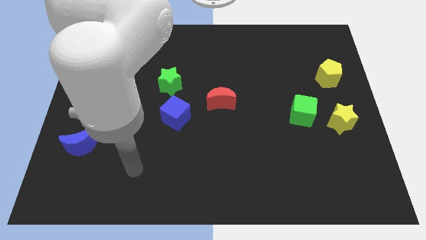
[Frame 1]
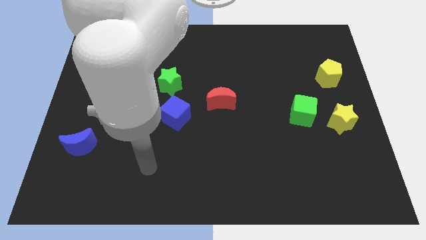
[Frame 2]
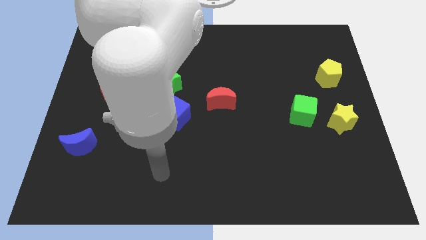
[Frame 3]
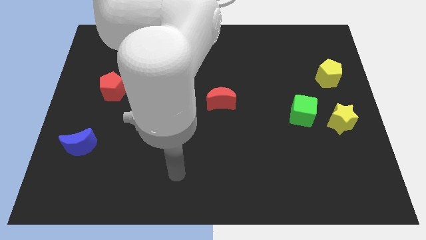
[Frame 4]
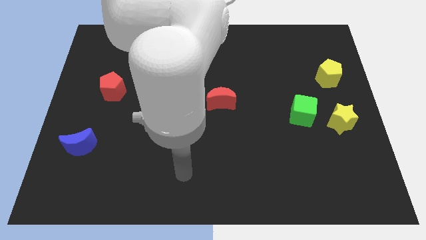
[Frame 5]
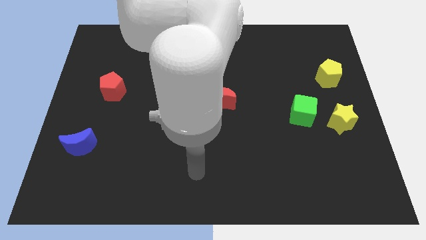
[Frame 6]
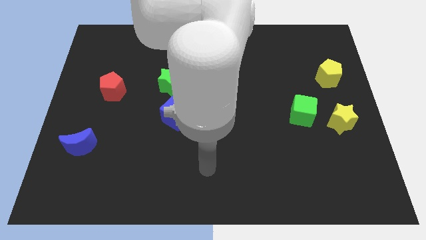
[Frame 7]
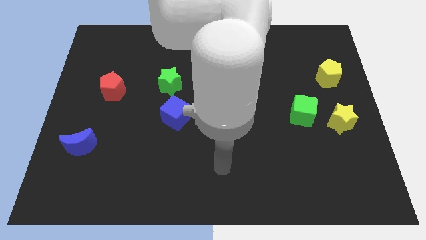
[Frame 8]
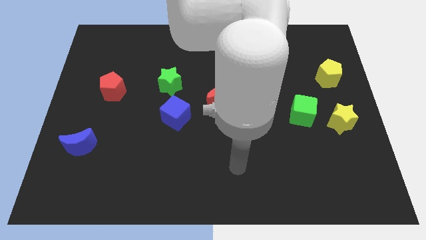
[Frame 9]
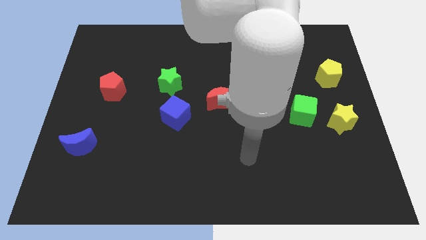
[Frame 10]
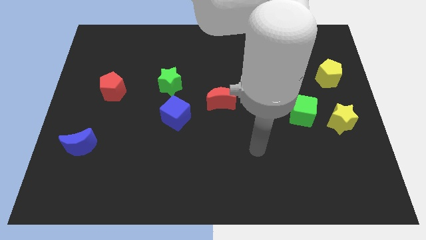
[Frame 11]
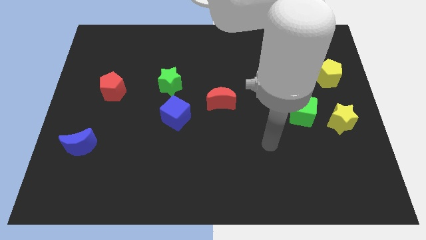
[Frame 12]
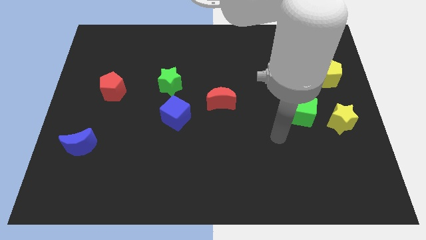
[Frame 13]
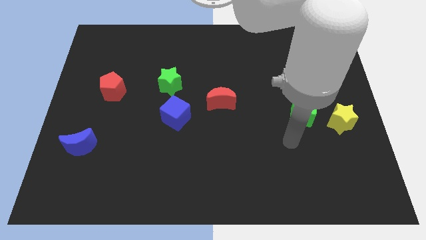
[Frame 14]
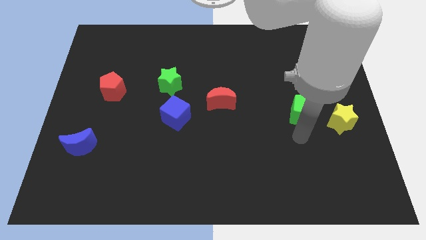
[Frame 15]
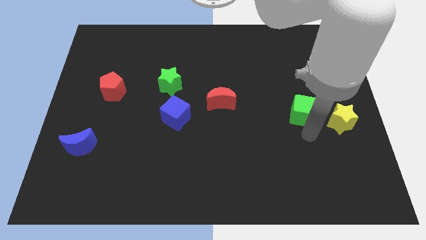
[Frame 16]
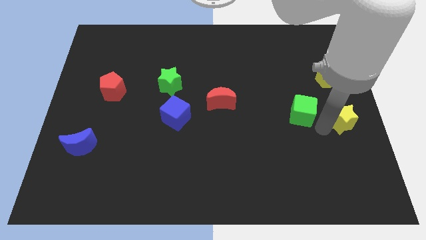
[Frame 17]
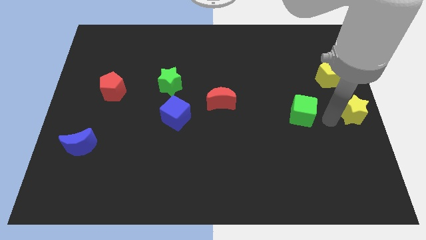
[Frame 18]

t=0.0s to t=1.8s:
pull the green cube apart from the yellow star

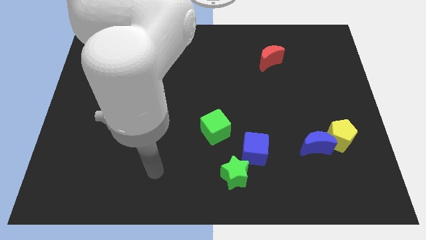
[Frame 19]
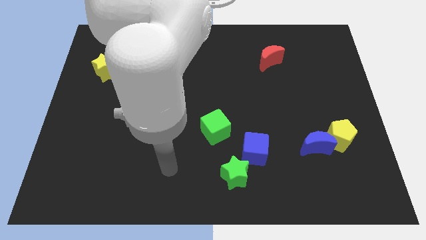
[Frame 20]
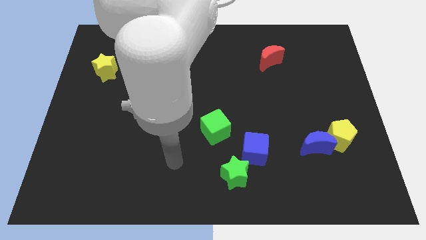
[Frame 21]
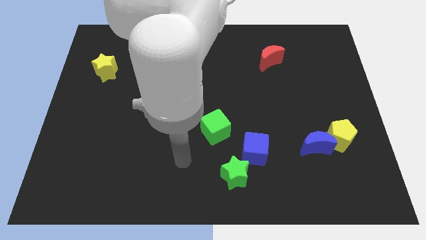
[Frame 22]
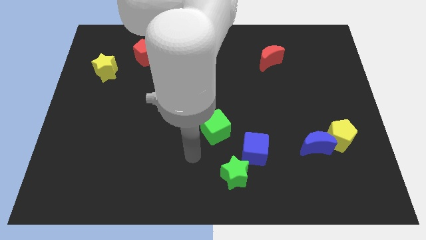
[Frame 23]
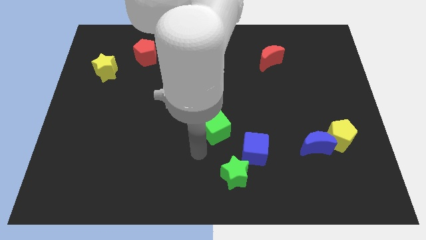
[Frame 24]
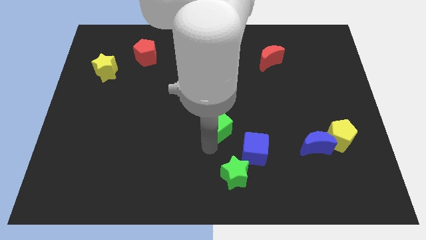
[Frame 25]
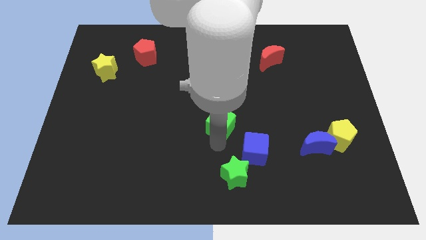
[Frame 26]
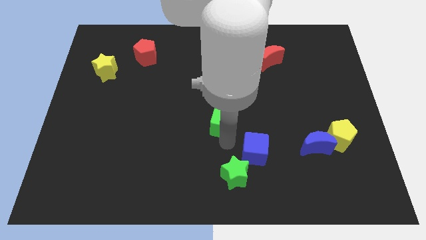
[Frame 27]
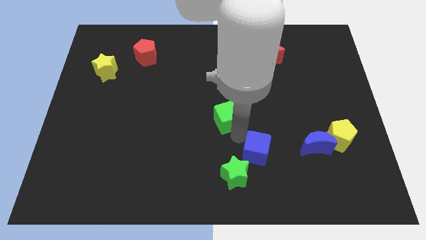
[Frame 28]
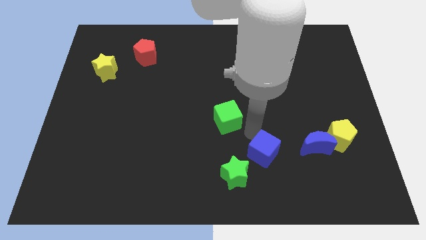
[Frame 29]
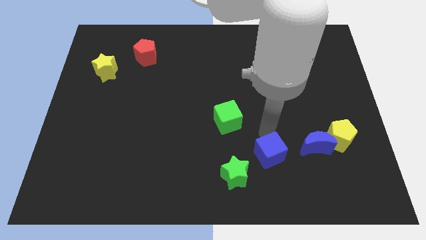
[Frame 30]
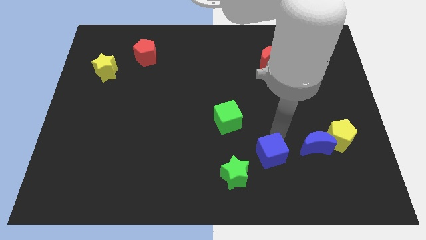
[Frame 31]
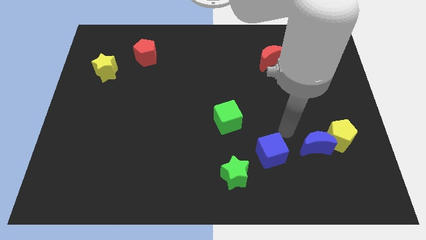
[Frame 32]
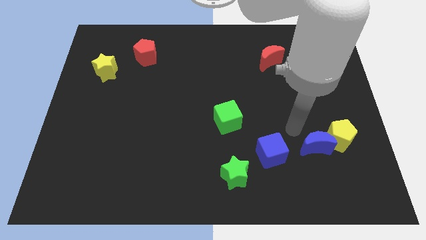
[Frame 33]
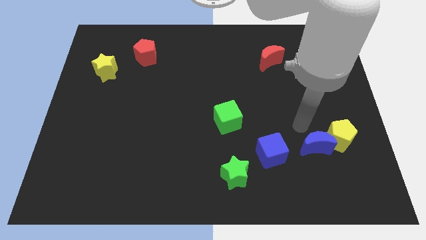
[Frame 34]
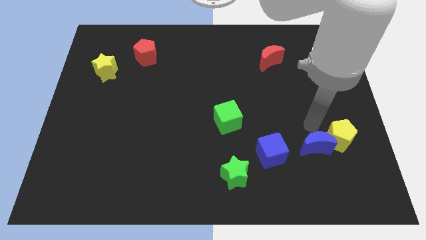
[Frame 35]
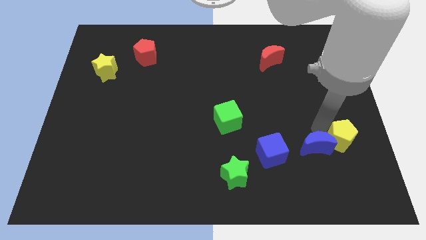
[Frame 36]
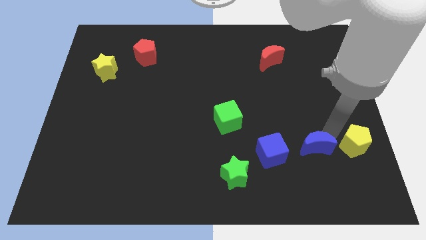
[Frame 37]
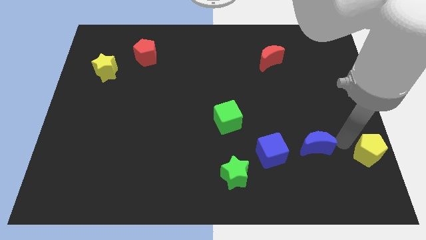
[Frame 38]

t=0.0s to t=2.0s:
separate the blue moon from the yellow pentagon

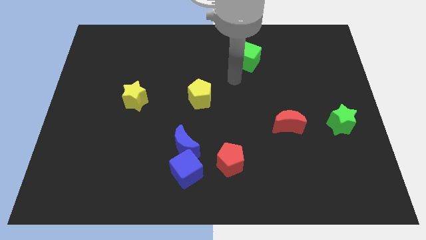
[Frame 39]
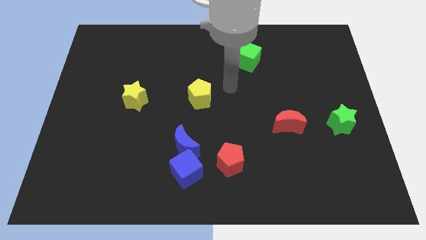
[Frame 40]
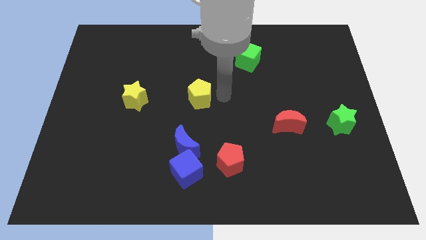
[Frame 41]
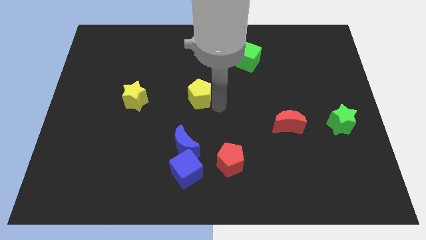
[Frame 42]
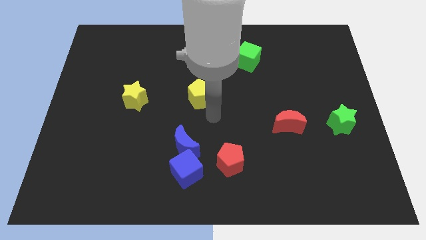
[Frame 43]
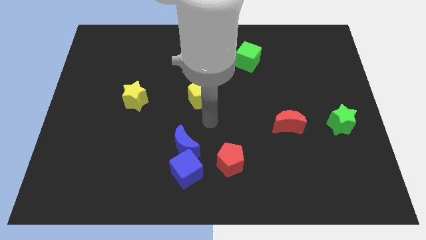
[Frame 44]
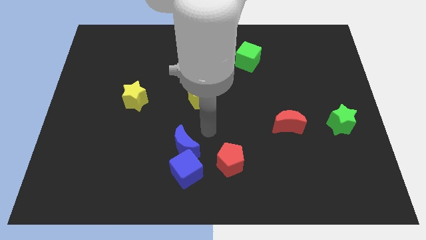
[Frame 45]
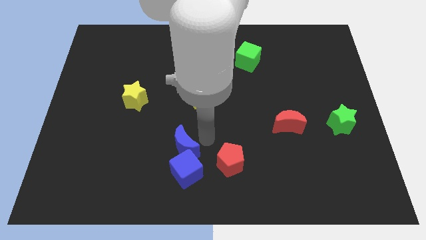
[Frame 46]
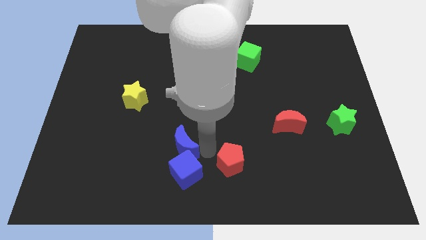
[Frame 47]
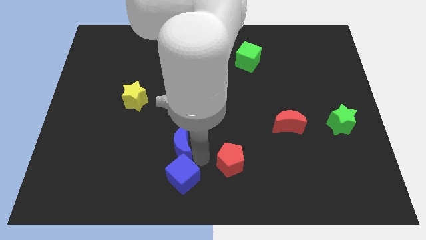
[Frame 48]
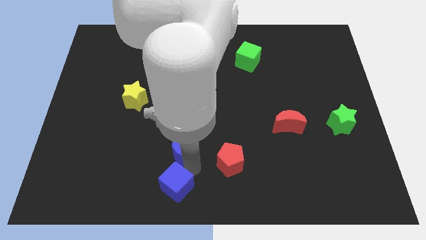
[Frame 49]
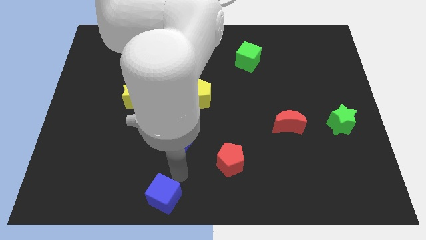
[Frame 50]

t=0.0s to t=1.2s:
separate the blue moon from the blue cube

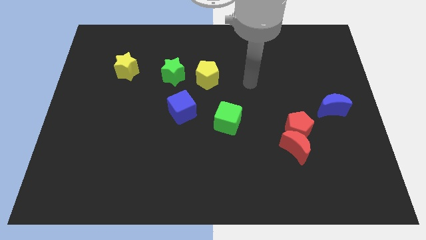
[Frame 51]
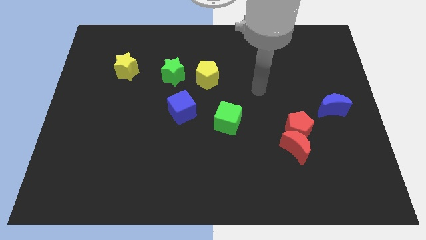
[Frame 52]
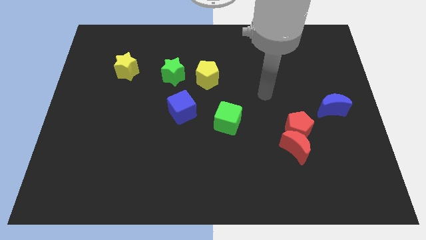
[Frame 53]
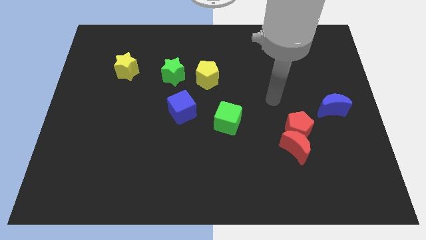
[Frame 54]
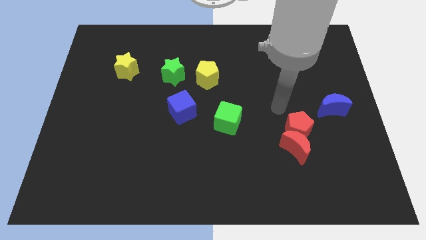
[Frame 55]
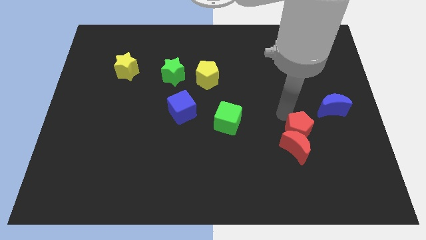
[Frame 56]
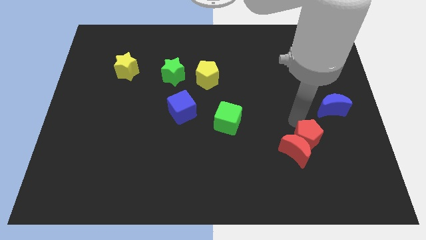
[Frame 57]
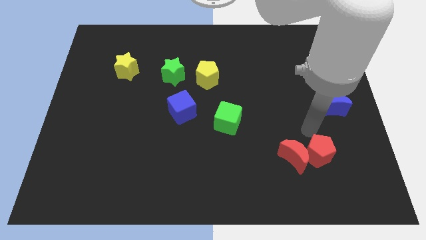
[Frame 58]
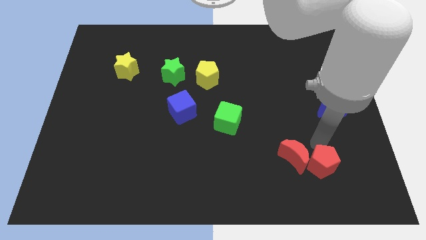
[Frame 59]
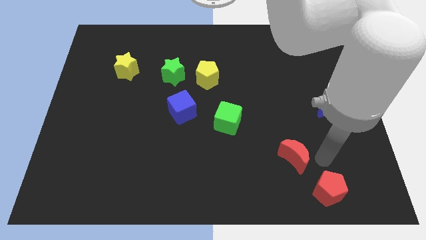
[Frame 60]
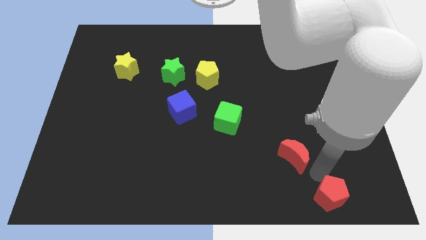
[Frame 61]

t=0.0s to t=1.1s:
pull the red moon apart from the red pentagon

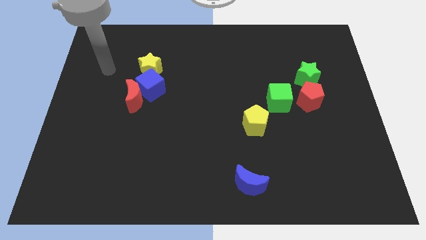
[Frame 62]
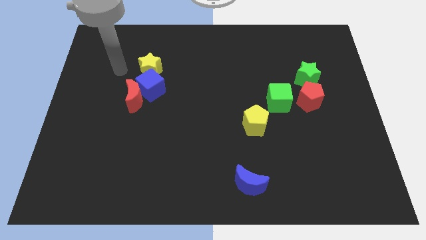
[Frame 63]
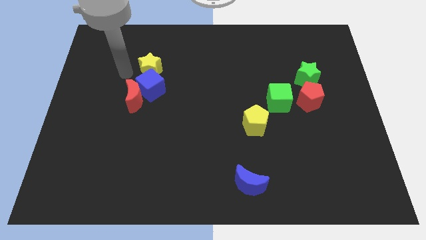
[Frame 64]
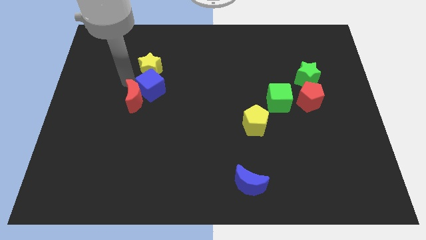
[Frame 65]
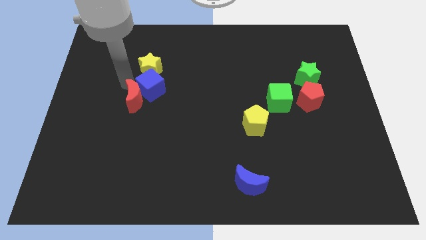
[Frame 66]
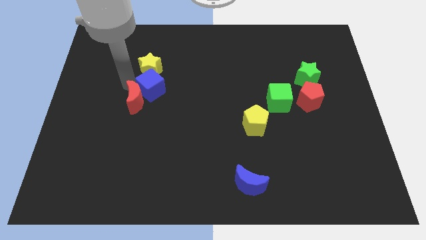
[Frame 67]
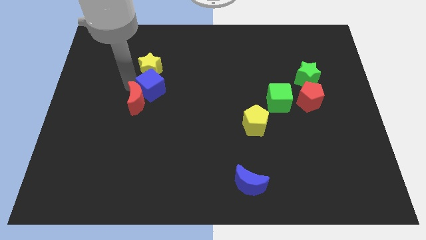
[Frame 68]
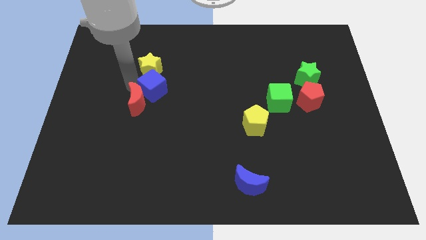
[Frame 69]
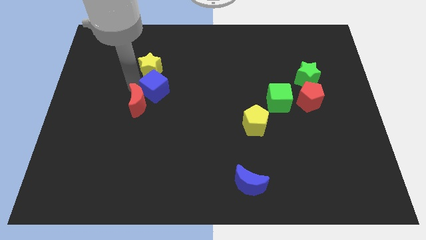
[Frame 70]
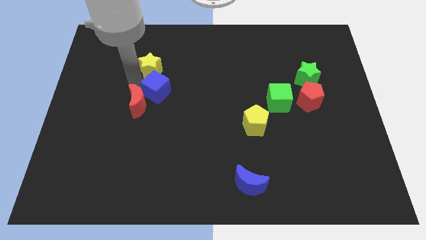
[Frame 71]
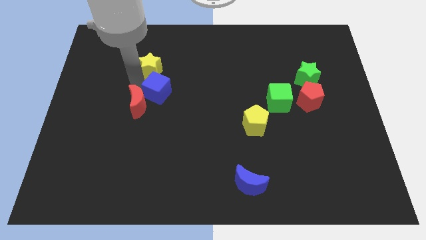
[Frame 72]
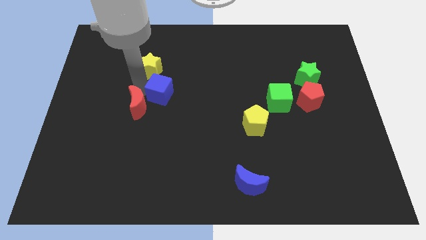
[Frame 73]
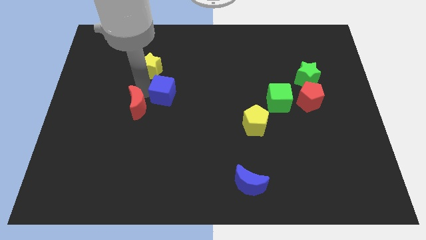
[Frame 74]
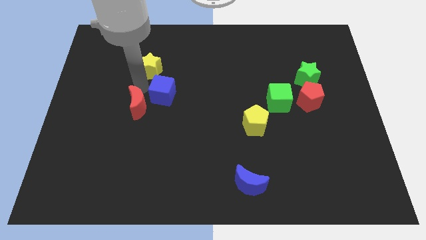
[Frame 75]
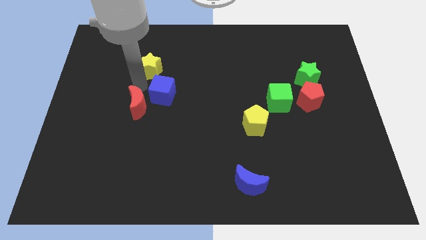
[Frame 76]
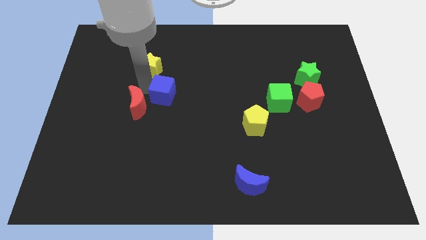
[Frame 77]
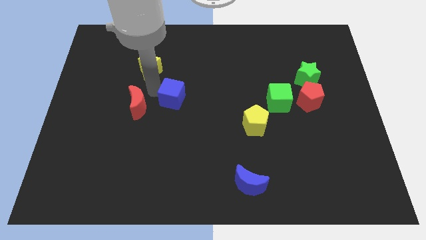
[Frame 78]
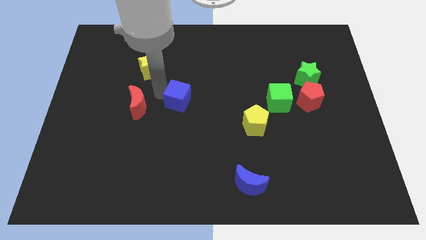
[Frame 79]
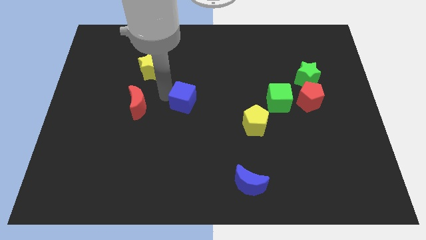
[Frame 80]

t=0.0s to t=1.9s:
move the blue cube away from the red moon and yellow star

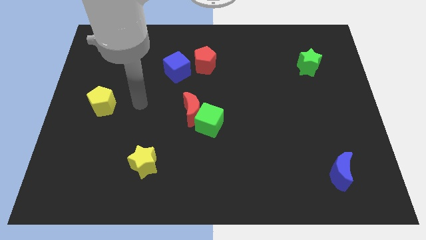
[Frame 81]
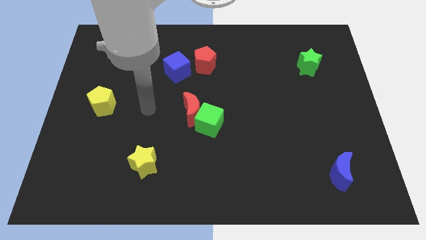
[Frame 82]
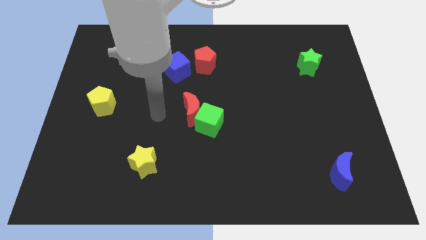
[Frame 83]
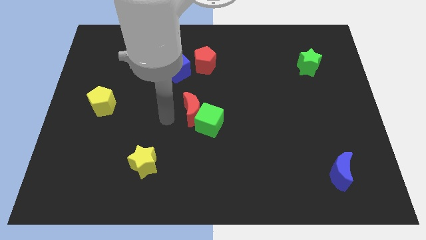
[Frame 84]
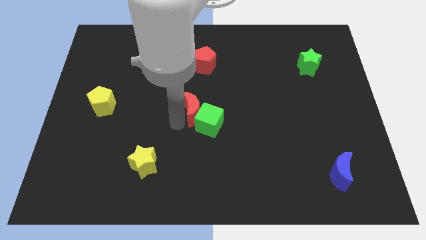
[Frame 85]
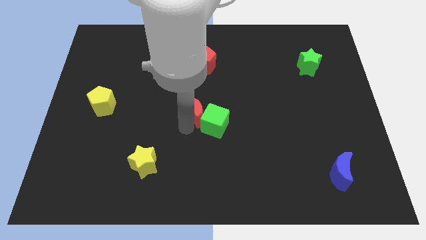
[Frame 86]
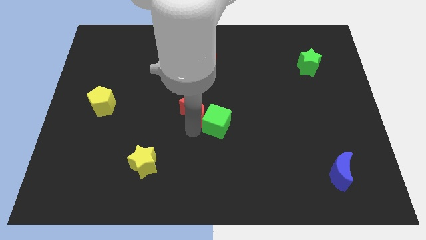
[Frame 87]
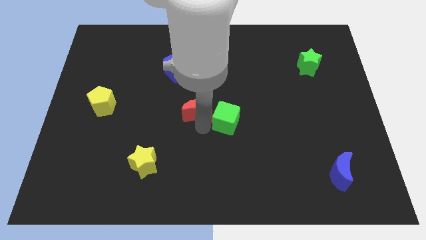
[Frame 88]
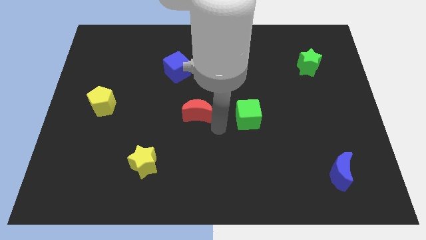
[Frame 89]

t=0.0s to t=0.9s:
move the red moon away from the green cube

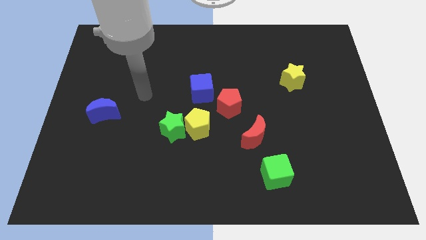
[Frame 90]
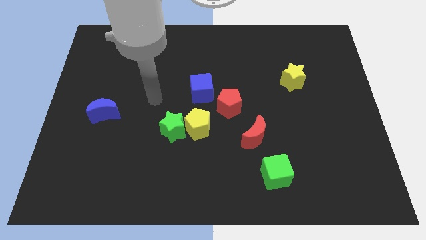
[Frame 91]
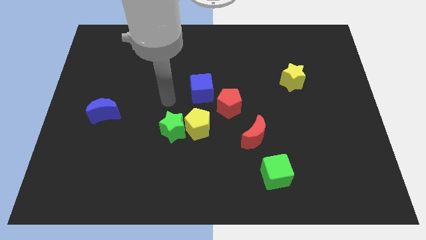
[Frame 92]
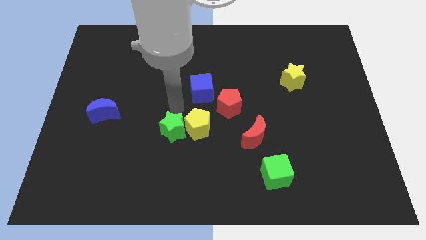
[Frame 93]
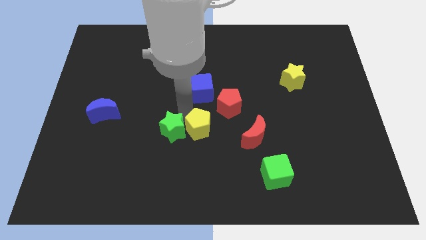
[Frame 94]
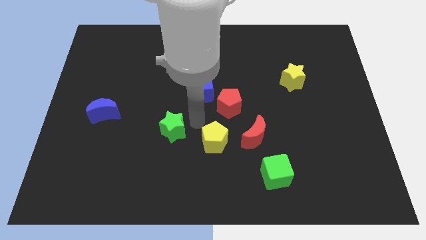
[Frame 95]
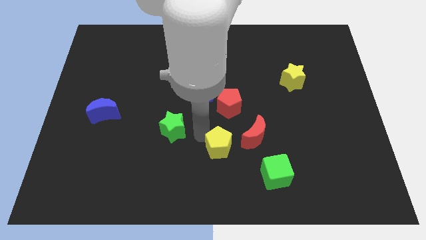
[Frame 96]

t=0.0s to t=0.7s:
pull the green star apart from the yellow pentagon
